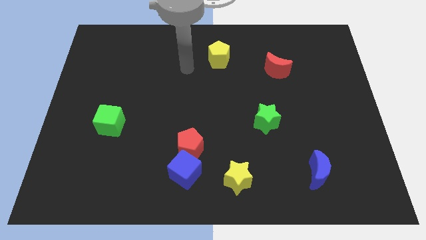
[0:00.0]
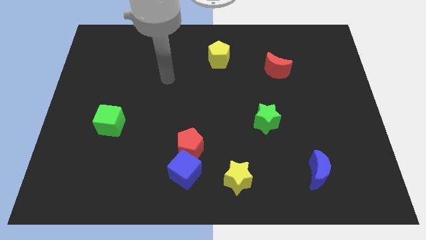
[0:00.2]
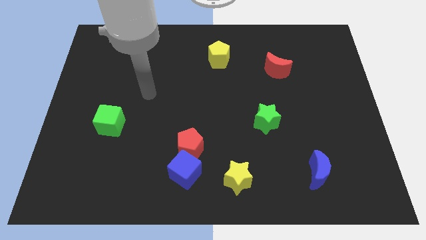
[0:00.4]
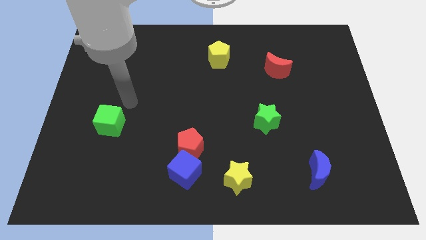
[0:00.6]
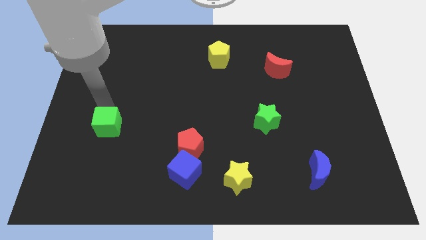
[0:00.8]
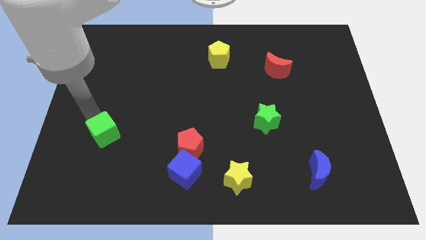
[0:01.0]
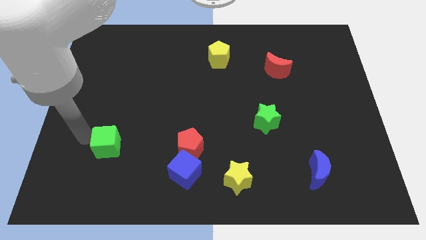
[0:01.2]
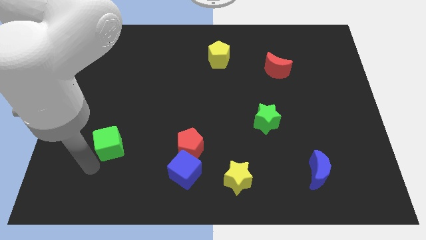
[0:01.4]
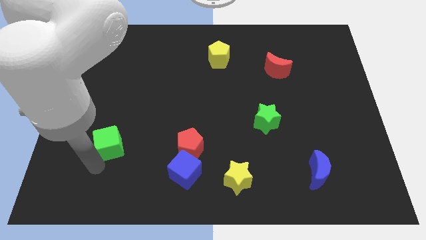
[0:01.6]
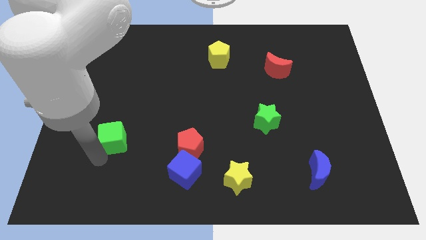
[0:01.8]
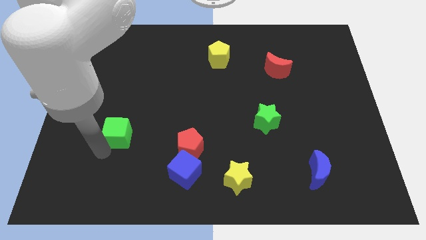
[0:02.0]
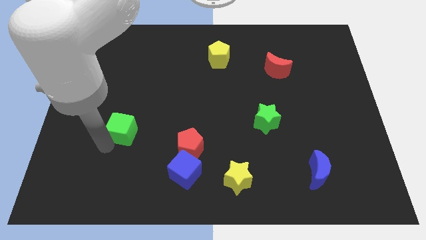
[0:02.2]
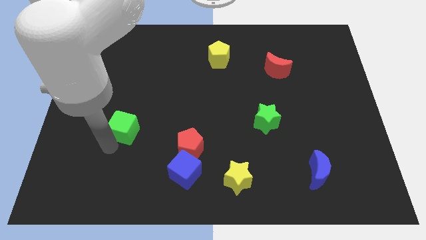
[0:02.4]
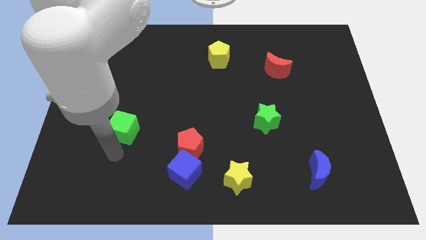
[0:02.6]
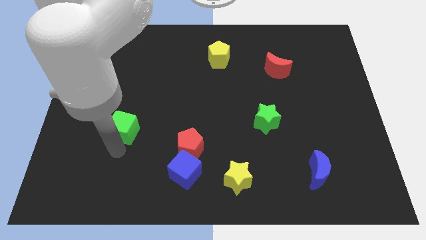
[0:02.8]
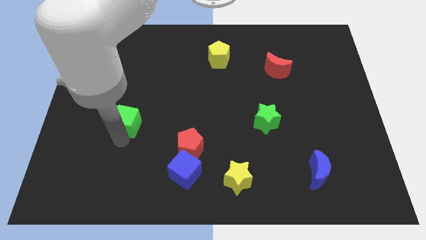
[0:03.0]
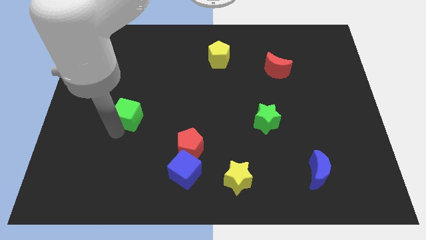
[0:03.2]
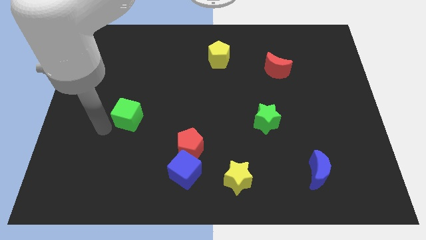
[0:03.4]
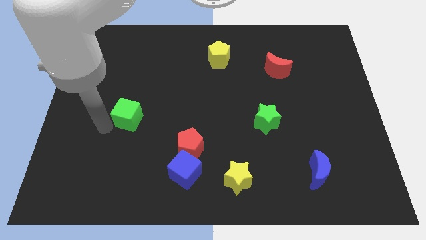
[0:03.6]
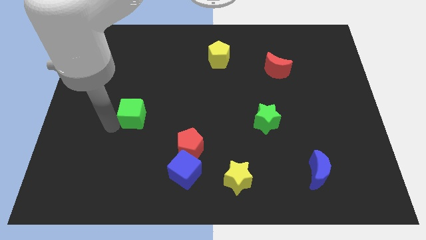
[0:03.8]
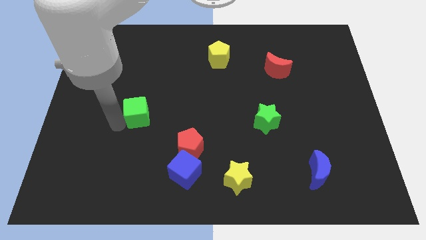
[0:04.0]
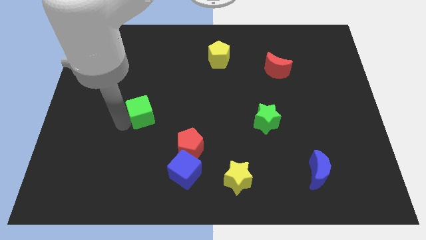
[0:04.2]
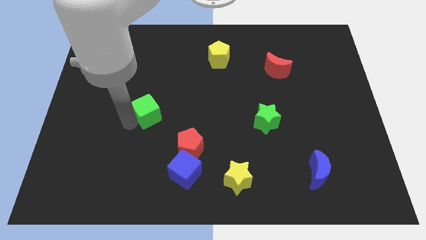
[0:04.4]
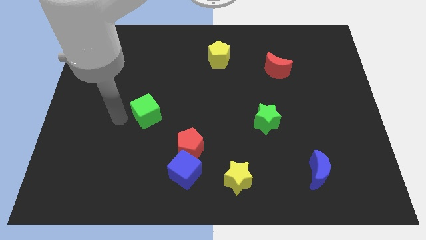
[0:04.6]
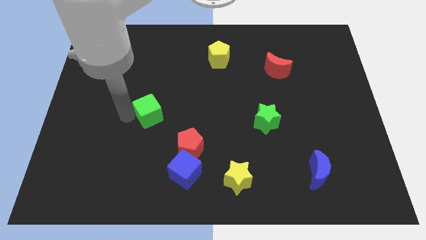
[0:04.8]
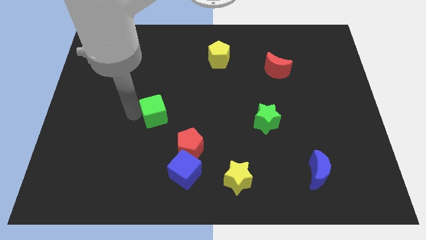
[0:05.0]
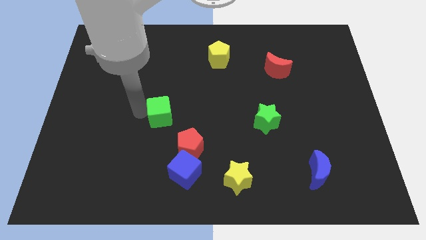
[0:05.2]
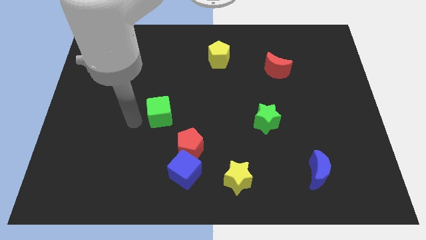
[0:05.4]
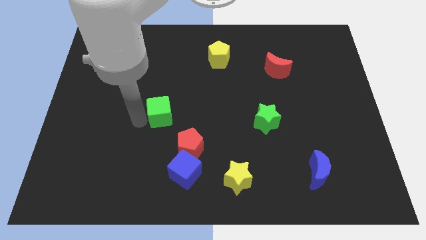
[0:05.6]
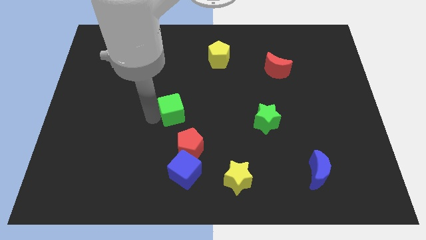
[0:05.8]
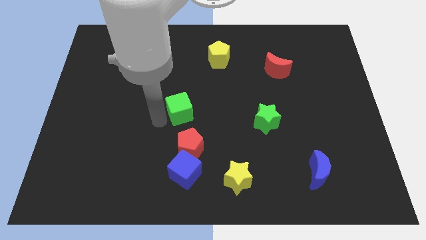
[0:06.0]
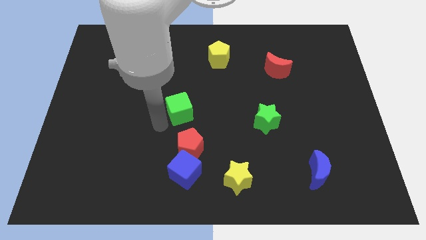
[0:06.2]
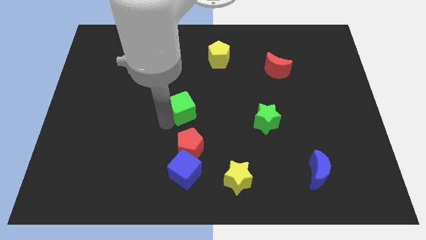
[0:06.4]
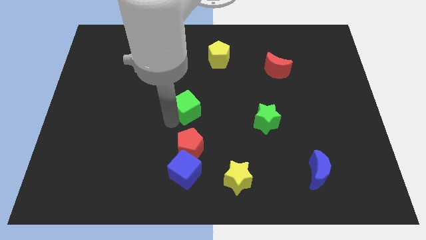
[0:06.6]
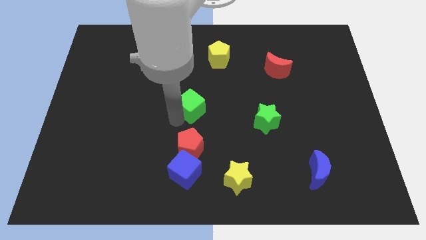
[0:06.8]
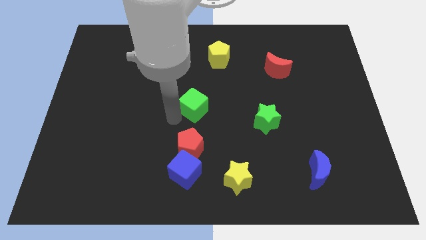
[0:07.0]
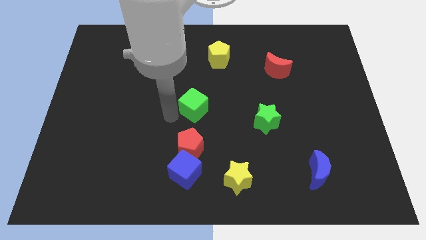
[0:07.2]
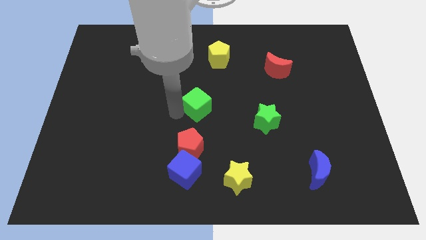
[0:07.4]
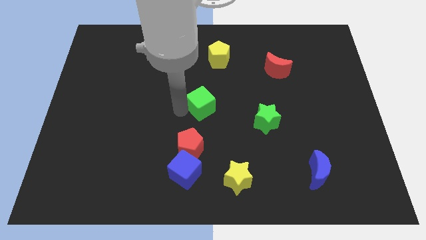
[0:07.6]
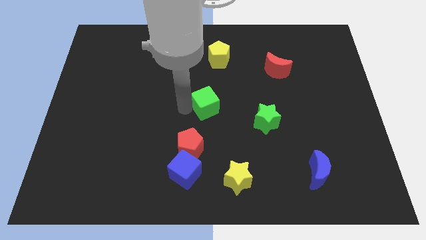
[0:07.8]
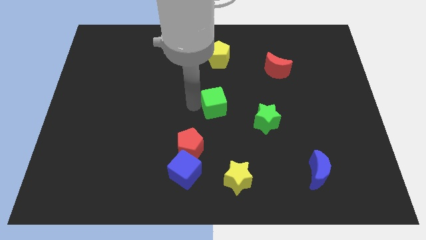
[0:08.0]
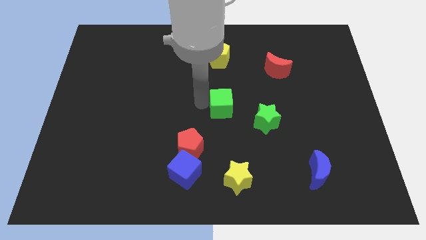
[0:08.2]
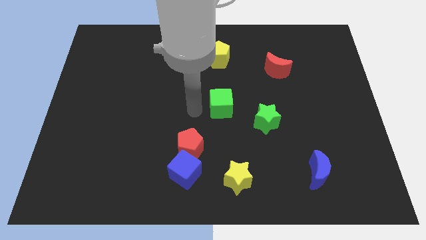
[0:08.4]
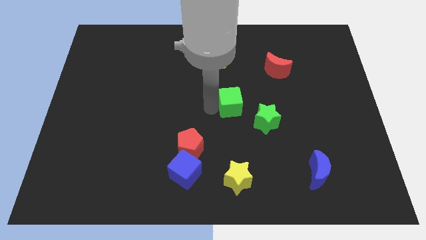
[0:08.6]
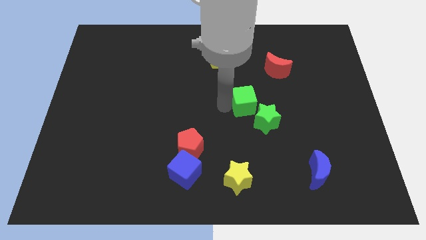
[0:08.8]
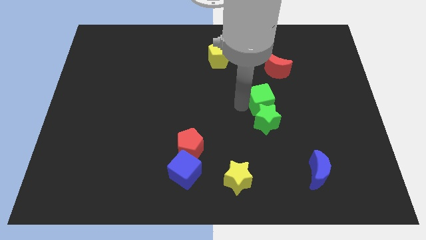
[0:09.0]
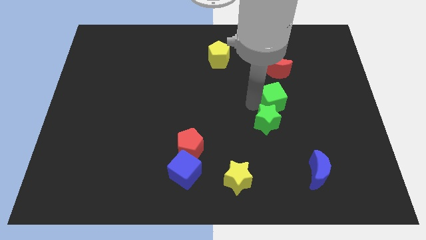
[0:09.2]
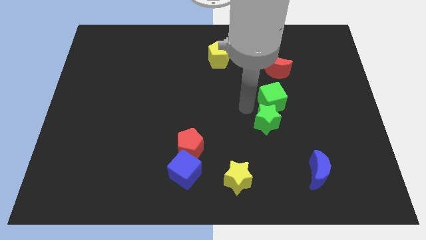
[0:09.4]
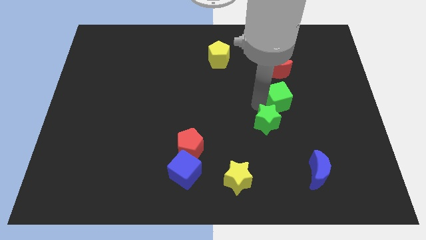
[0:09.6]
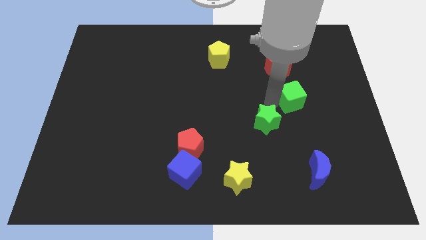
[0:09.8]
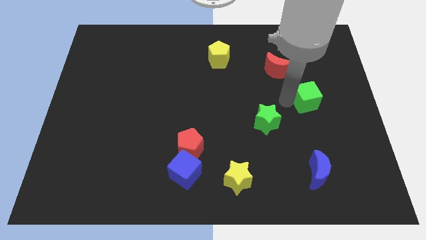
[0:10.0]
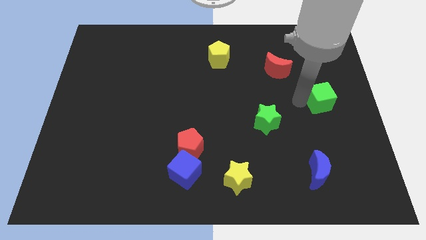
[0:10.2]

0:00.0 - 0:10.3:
push the green cube to the right side

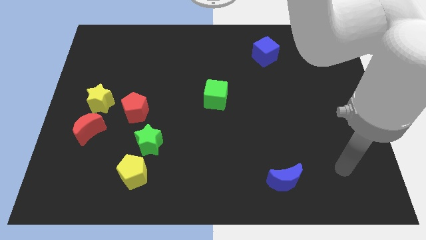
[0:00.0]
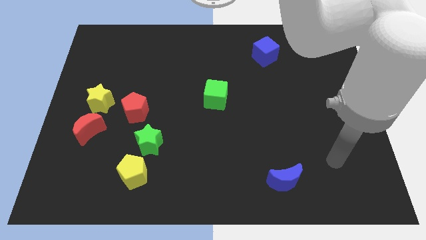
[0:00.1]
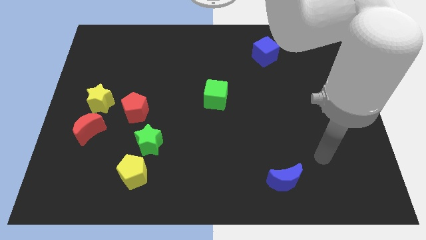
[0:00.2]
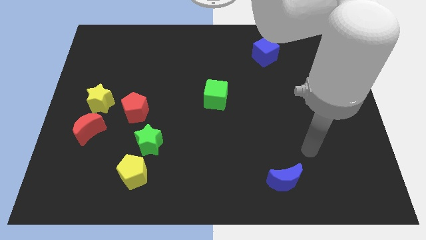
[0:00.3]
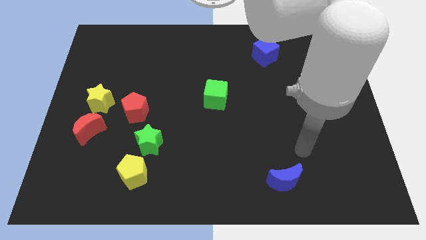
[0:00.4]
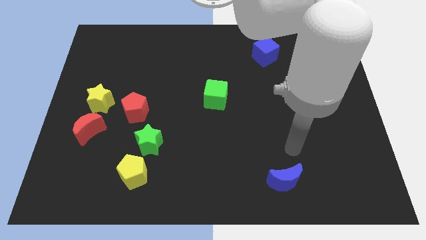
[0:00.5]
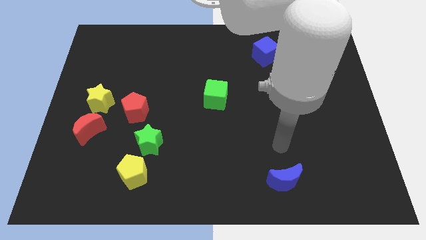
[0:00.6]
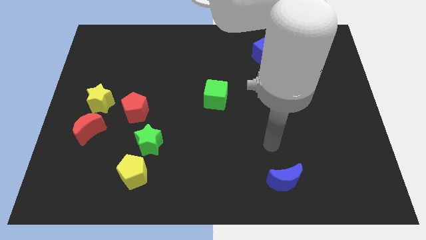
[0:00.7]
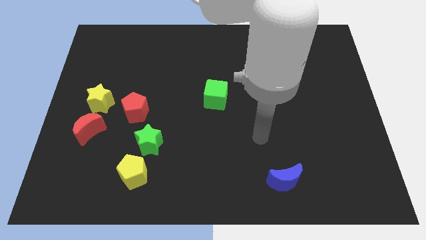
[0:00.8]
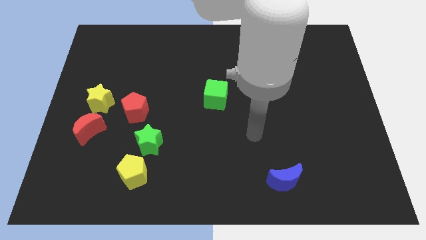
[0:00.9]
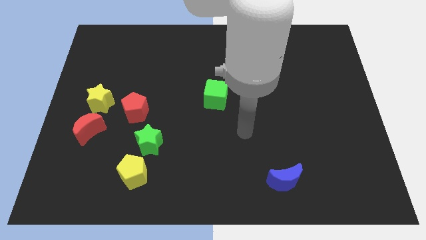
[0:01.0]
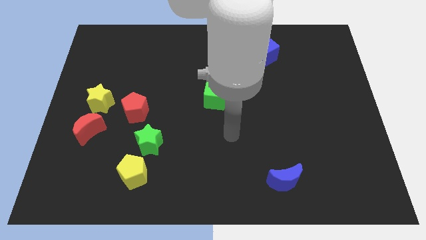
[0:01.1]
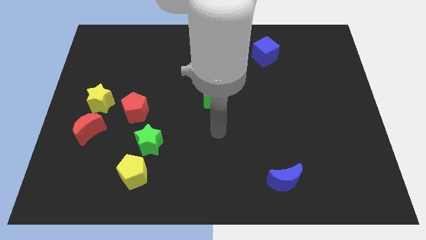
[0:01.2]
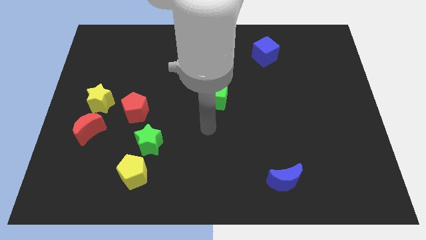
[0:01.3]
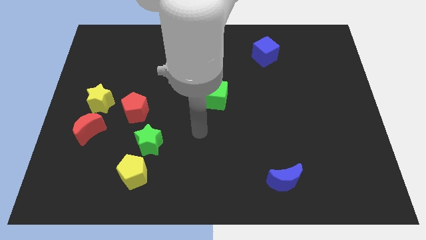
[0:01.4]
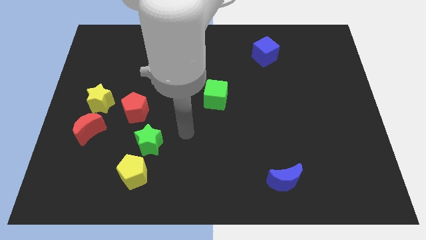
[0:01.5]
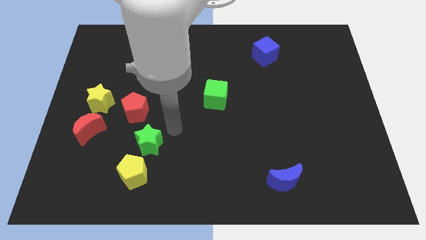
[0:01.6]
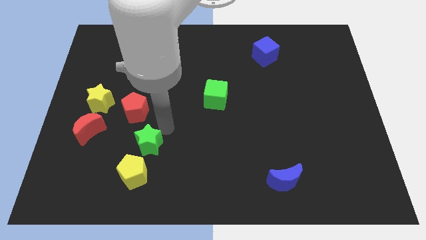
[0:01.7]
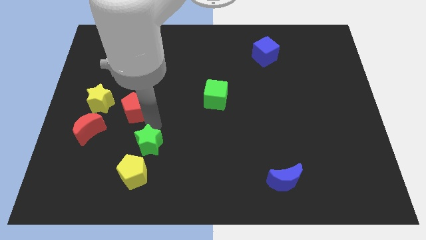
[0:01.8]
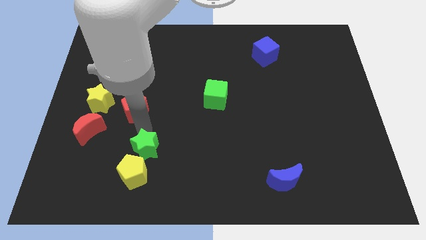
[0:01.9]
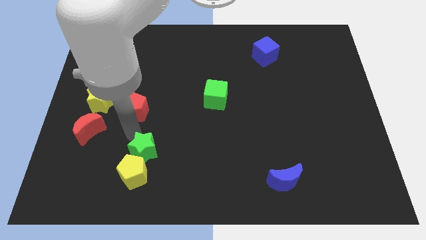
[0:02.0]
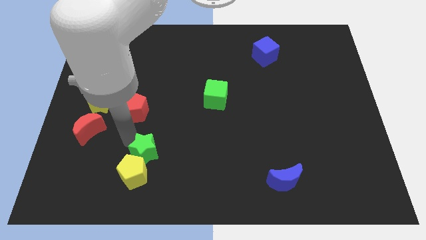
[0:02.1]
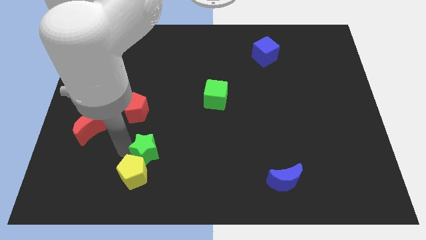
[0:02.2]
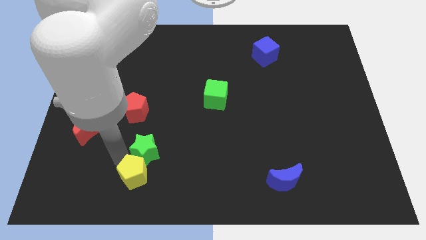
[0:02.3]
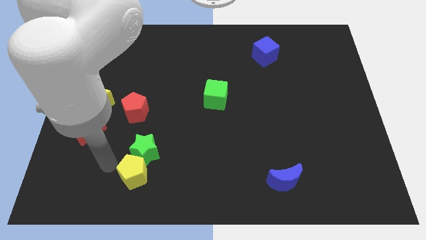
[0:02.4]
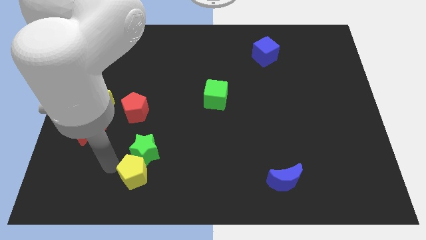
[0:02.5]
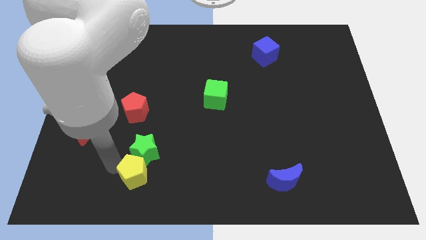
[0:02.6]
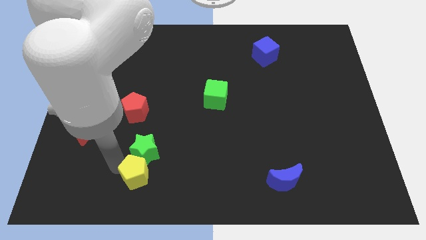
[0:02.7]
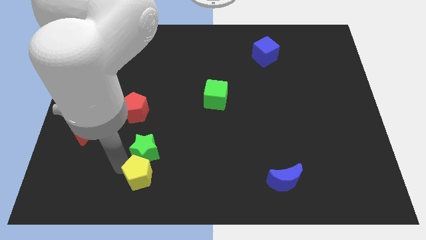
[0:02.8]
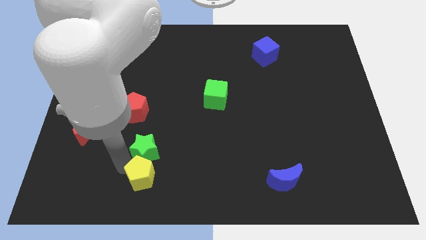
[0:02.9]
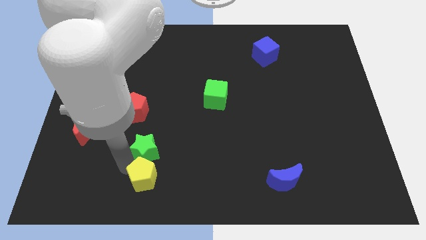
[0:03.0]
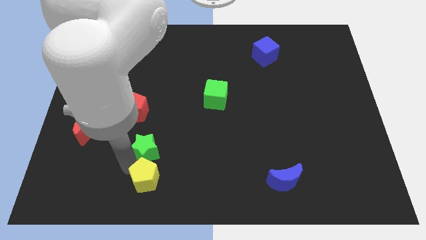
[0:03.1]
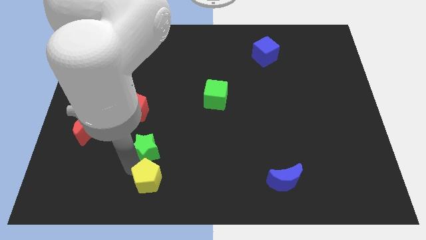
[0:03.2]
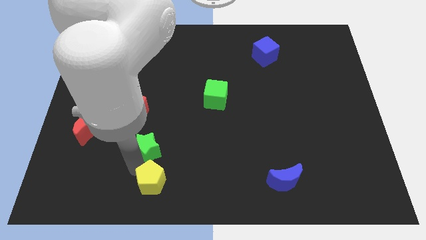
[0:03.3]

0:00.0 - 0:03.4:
put the yellow pentagon to the bottom side
